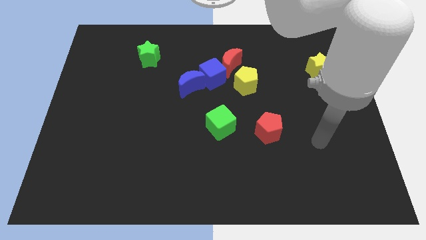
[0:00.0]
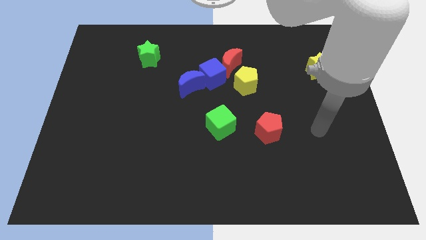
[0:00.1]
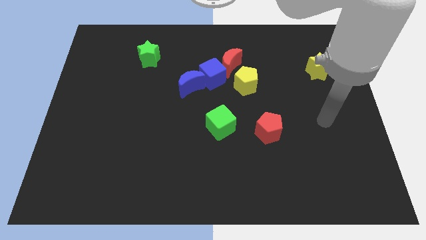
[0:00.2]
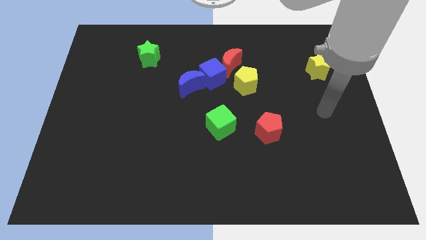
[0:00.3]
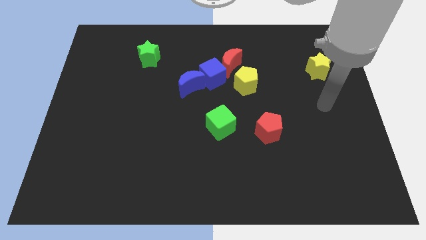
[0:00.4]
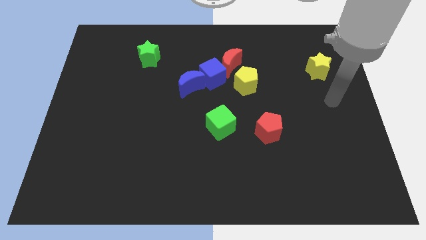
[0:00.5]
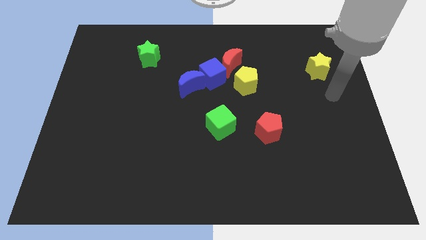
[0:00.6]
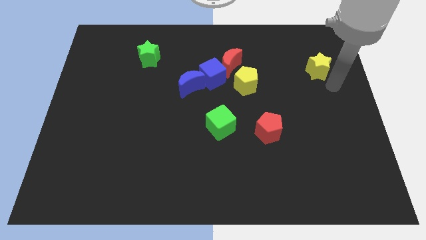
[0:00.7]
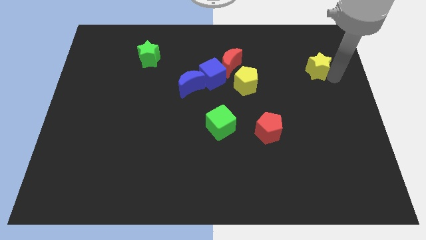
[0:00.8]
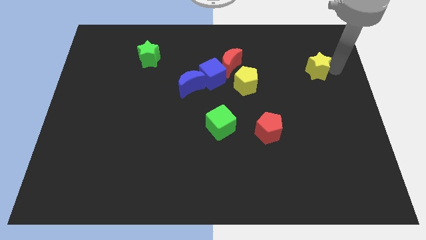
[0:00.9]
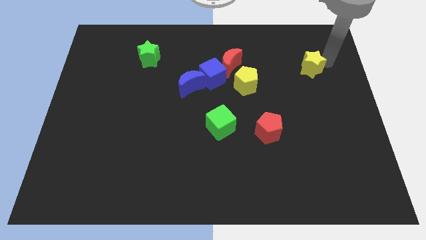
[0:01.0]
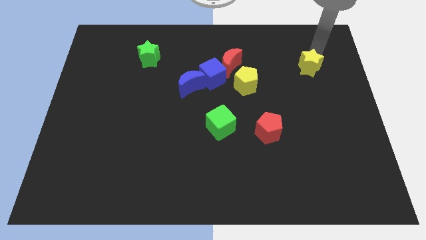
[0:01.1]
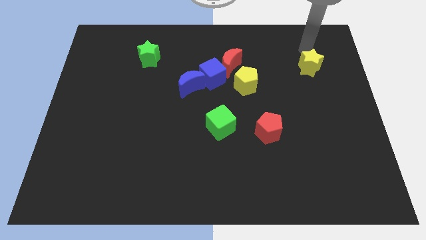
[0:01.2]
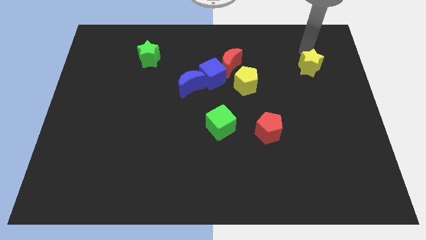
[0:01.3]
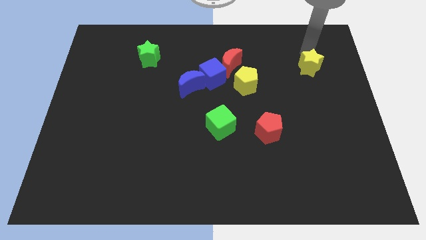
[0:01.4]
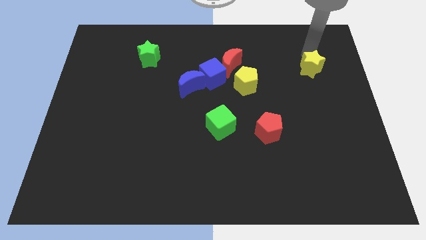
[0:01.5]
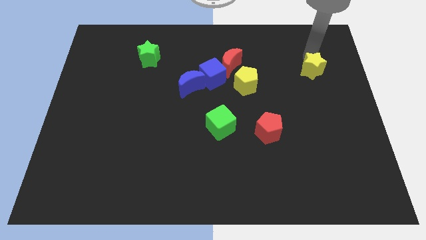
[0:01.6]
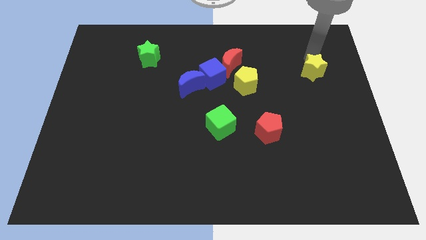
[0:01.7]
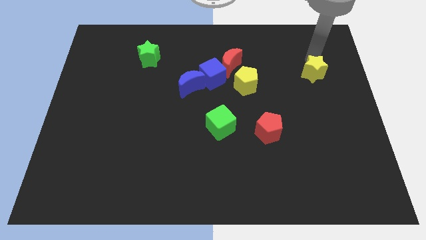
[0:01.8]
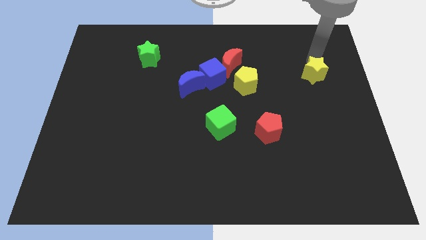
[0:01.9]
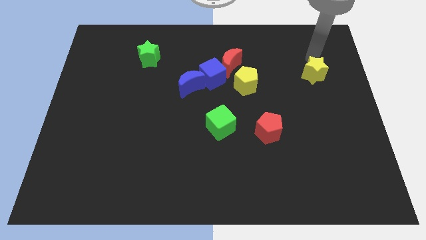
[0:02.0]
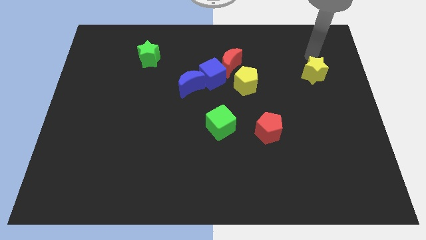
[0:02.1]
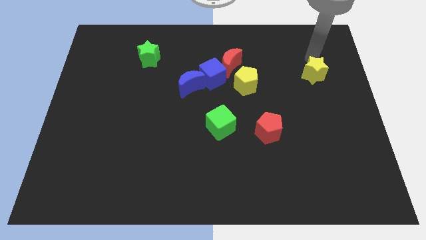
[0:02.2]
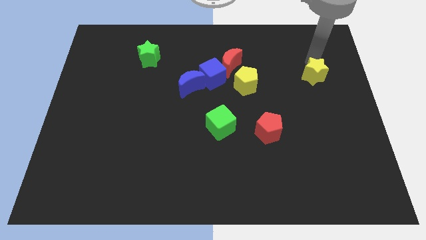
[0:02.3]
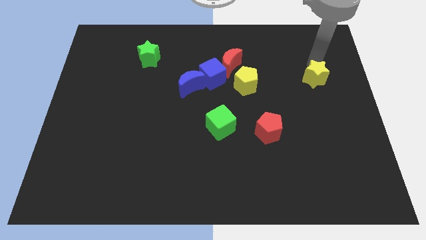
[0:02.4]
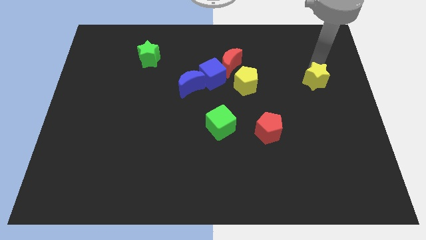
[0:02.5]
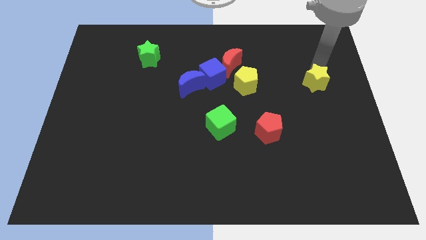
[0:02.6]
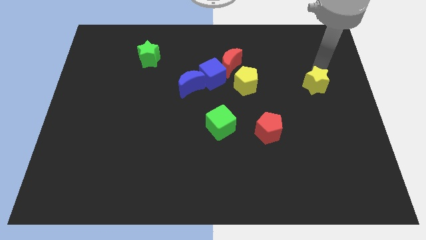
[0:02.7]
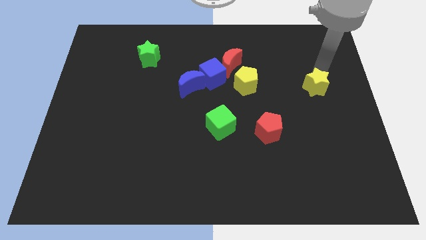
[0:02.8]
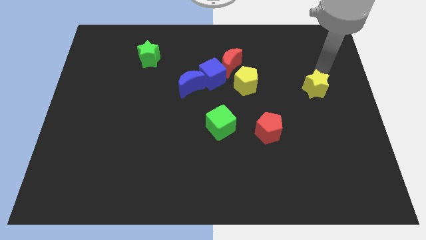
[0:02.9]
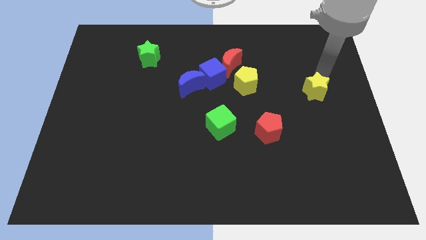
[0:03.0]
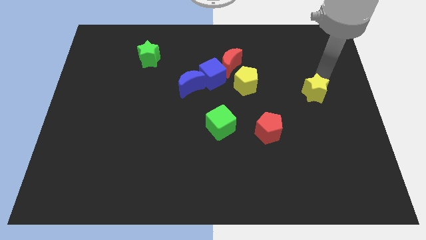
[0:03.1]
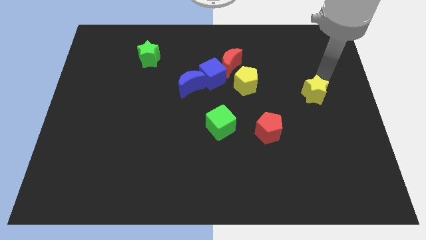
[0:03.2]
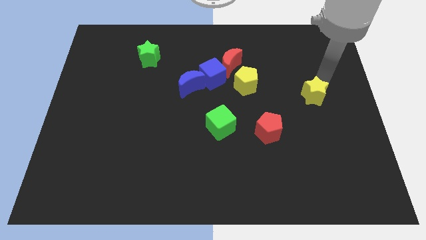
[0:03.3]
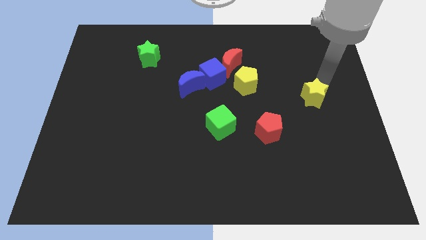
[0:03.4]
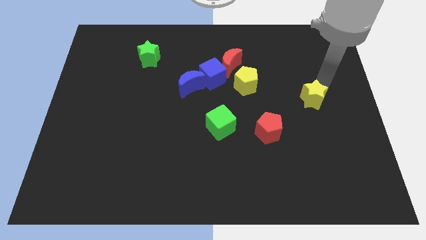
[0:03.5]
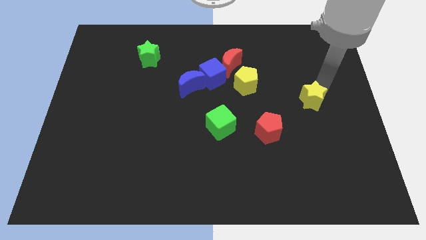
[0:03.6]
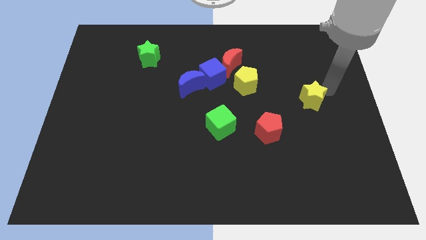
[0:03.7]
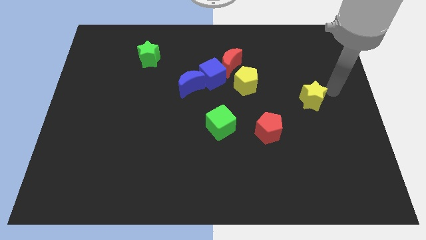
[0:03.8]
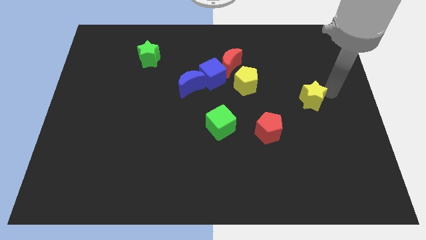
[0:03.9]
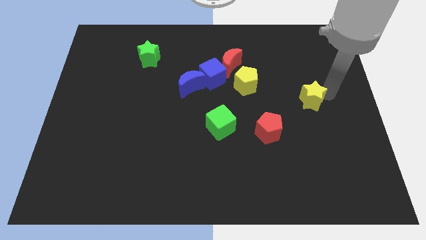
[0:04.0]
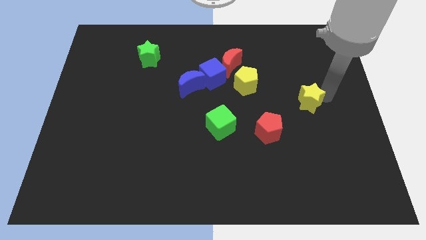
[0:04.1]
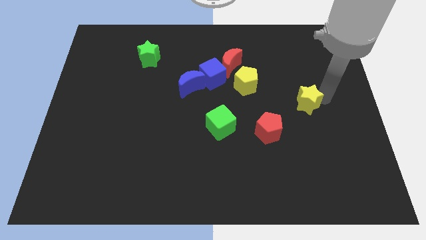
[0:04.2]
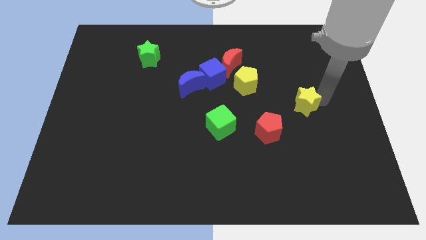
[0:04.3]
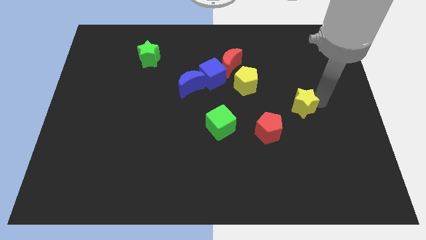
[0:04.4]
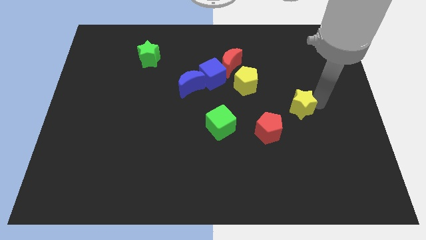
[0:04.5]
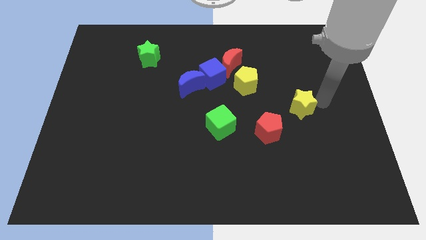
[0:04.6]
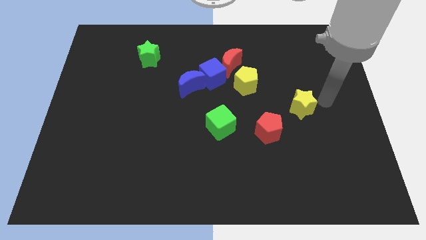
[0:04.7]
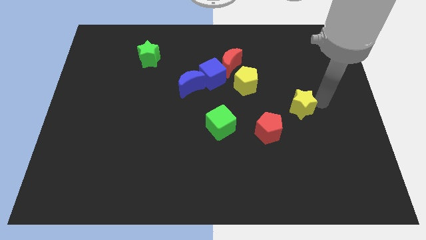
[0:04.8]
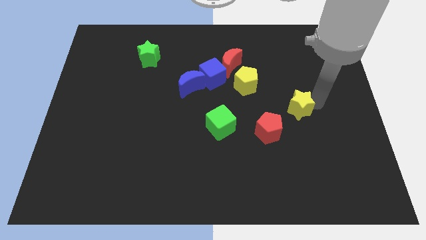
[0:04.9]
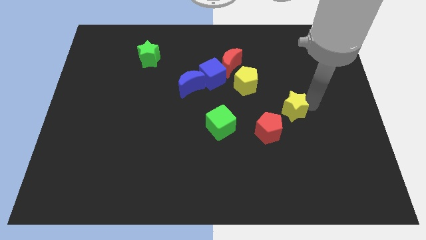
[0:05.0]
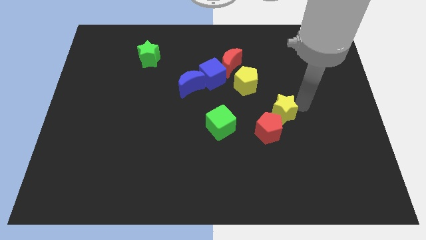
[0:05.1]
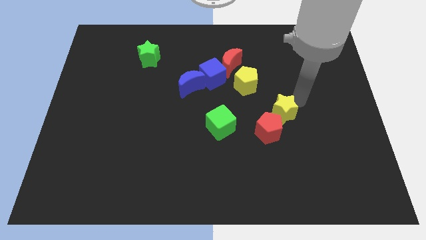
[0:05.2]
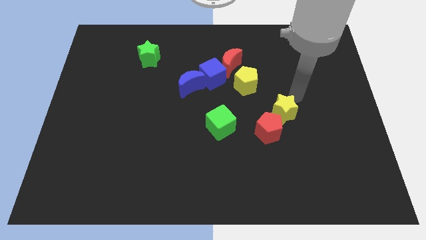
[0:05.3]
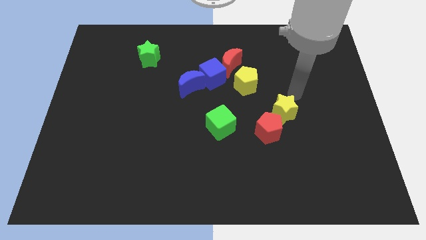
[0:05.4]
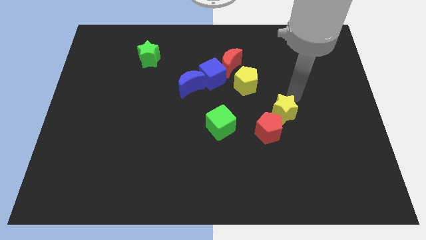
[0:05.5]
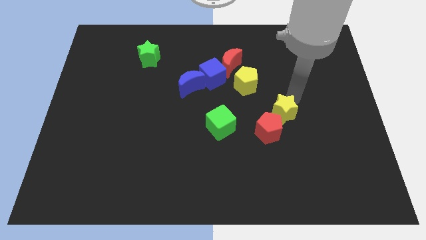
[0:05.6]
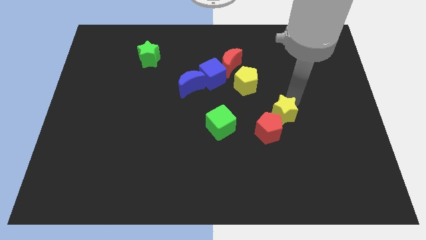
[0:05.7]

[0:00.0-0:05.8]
slide the yellow star to the red pentagon
